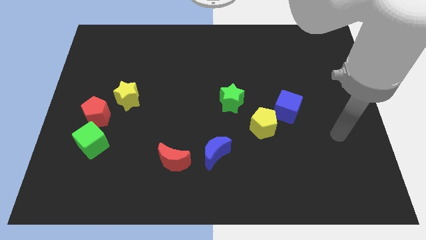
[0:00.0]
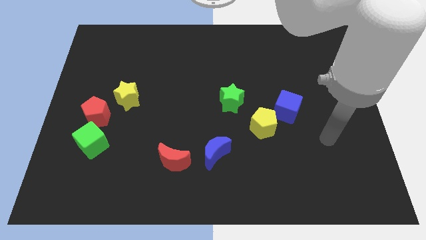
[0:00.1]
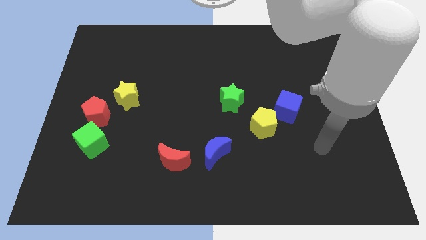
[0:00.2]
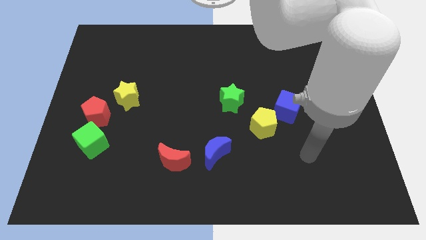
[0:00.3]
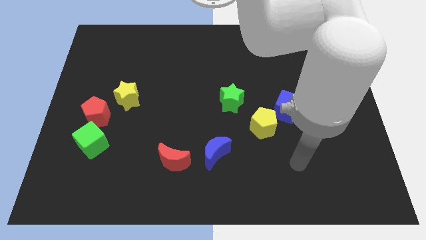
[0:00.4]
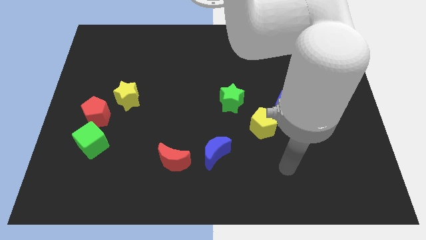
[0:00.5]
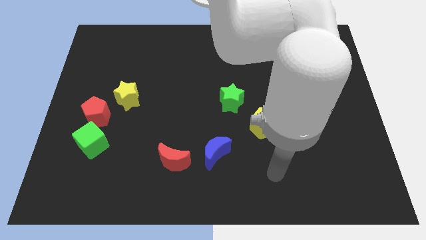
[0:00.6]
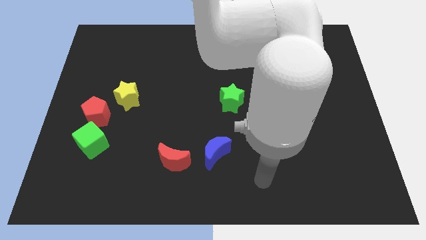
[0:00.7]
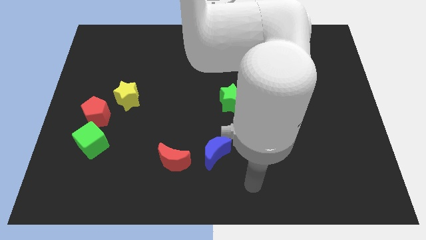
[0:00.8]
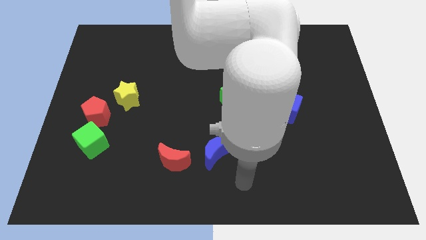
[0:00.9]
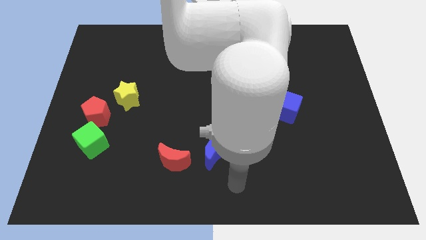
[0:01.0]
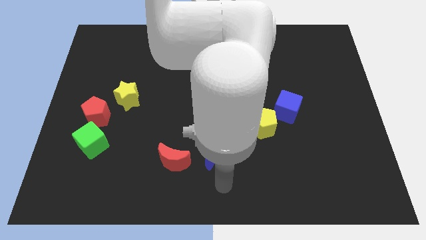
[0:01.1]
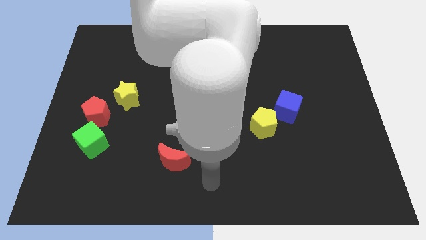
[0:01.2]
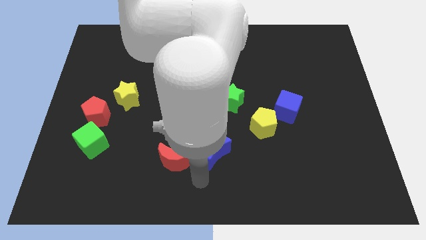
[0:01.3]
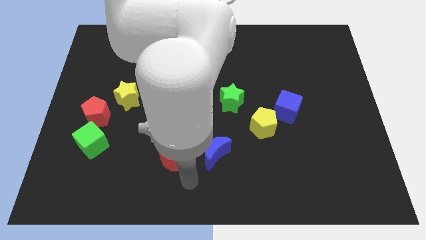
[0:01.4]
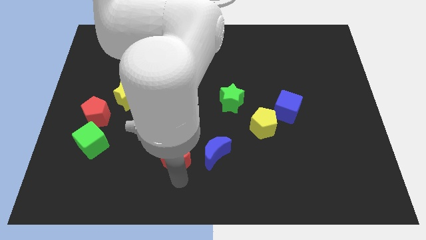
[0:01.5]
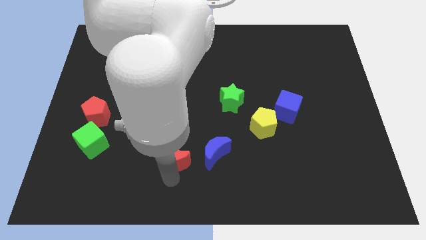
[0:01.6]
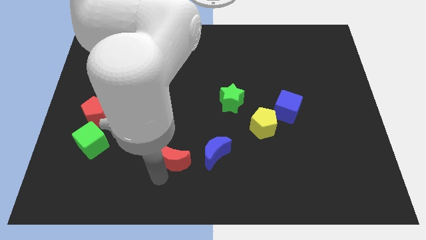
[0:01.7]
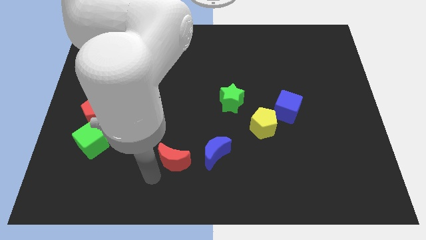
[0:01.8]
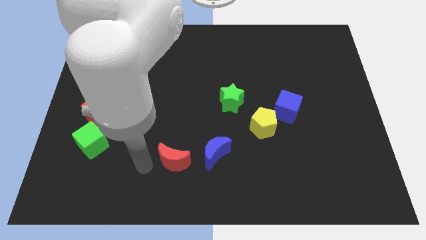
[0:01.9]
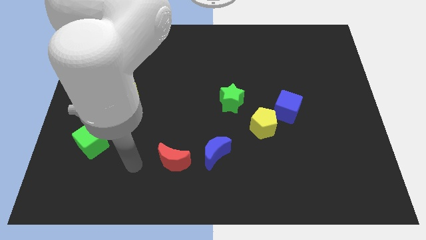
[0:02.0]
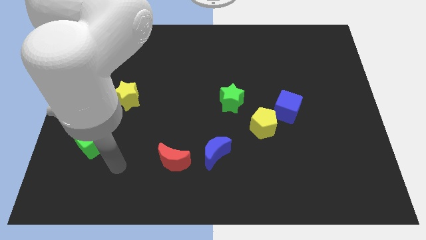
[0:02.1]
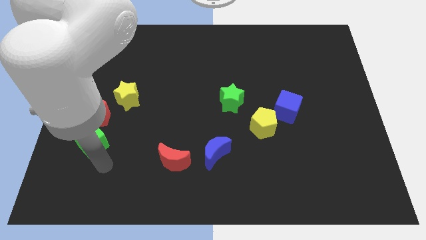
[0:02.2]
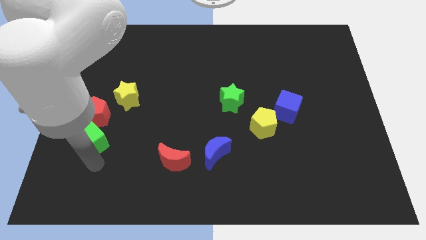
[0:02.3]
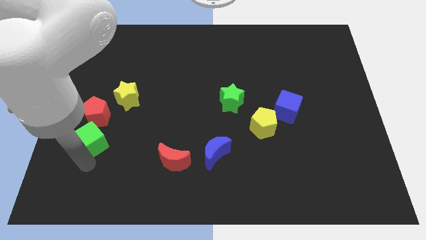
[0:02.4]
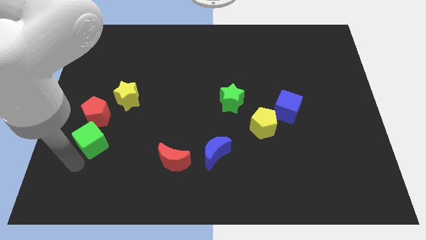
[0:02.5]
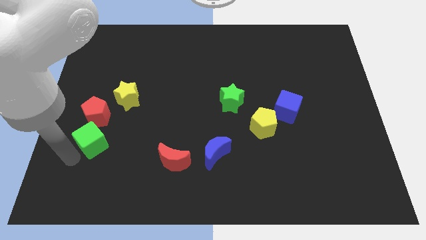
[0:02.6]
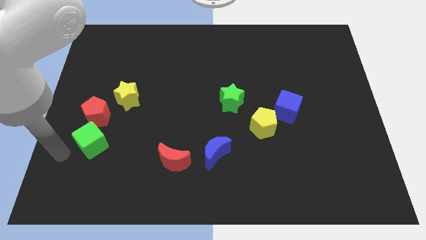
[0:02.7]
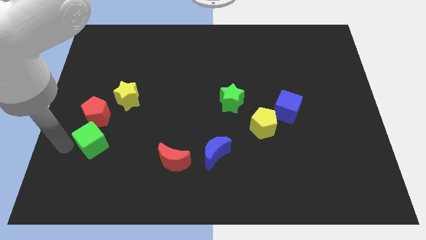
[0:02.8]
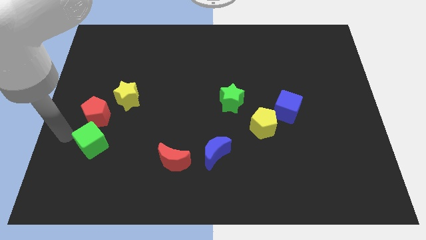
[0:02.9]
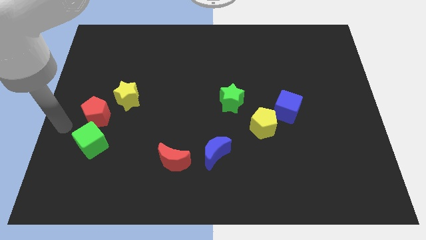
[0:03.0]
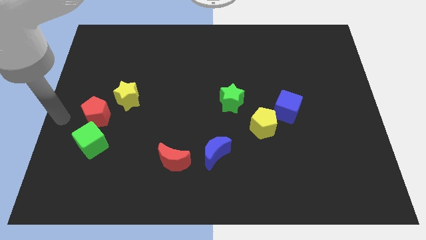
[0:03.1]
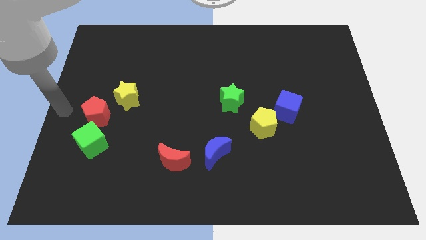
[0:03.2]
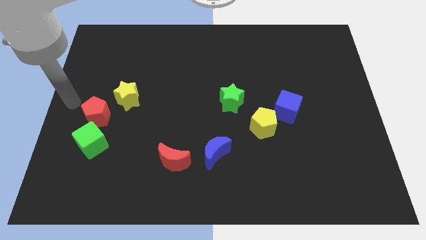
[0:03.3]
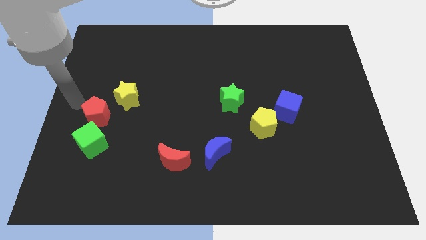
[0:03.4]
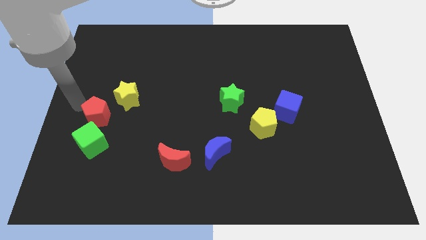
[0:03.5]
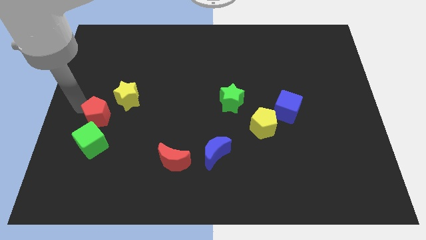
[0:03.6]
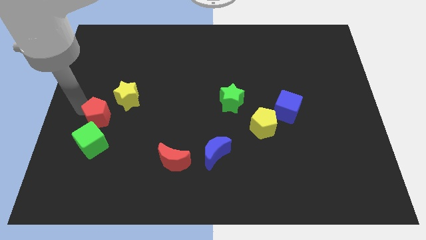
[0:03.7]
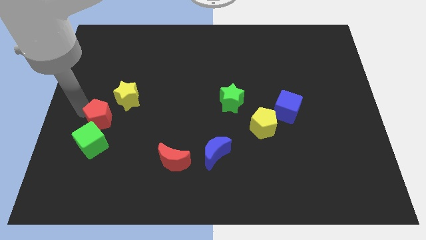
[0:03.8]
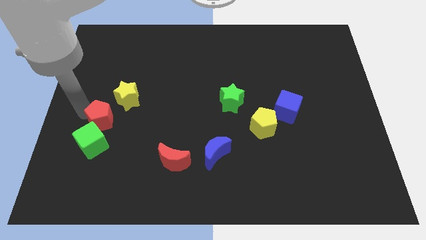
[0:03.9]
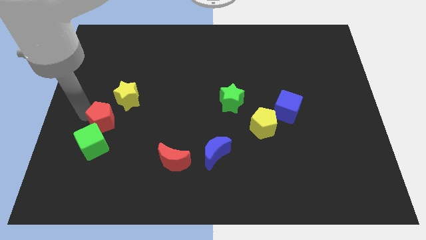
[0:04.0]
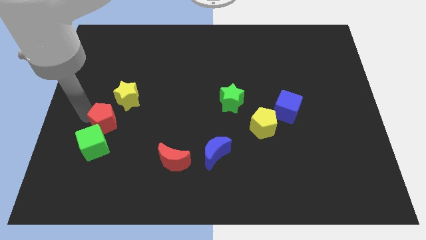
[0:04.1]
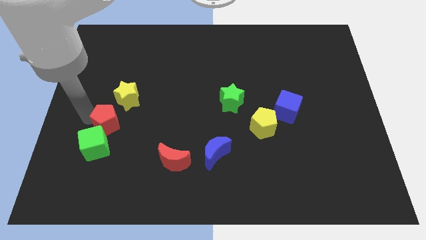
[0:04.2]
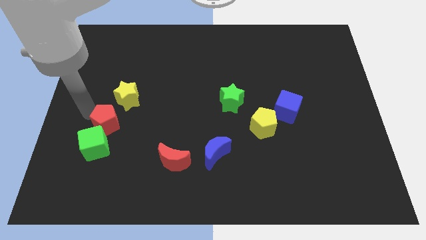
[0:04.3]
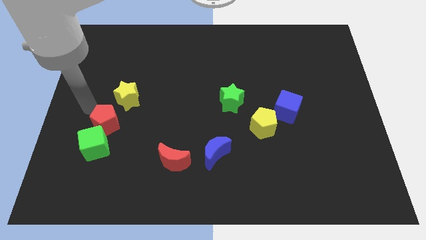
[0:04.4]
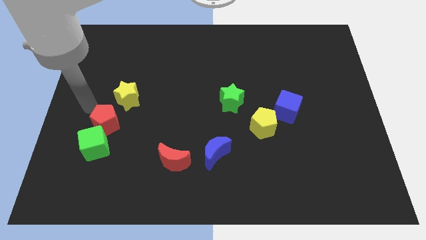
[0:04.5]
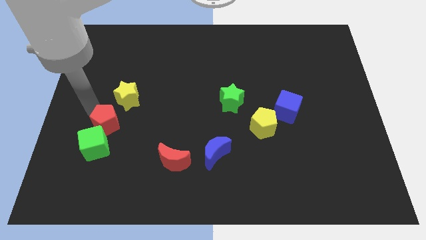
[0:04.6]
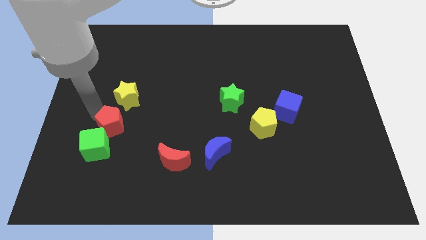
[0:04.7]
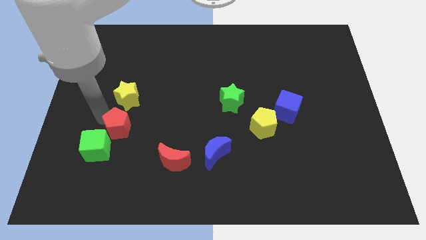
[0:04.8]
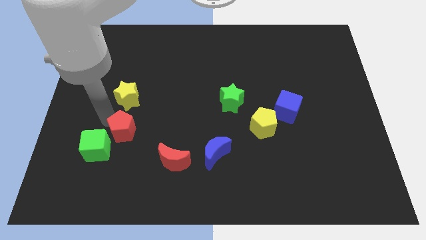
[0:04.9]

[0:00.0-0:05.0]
move the red pentagon downwards and right diagonally a little

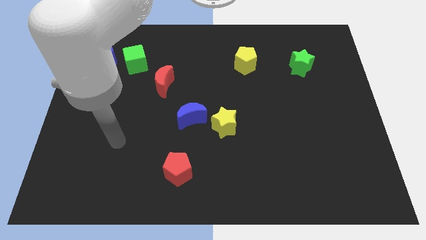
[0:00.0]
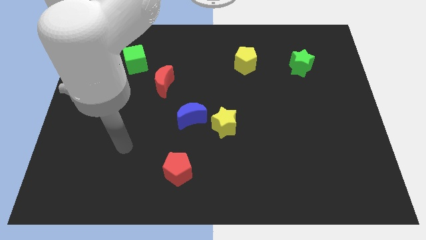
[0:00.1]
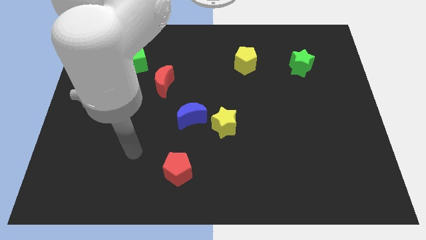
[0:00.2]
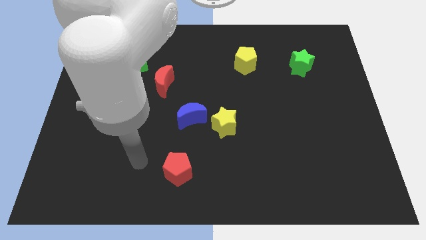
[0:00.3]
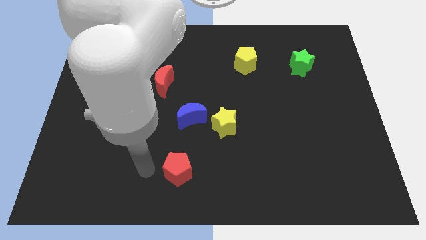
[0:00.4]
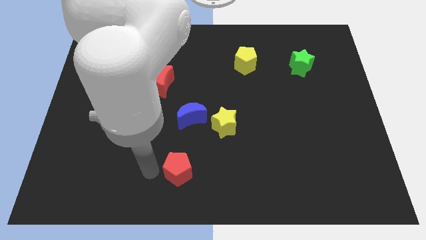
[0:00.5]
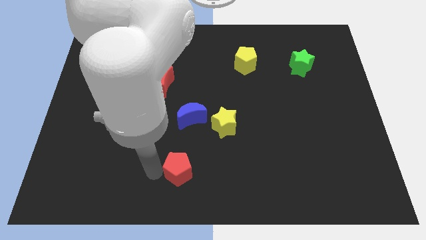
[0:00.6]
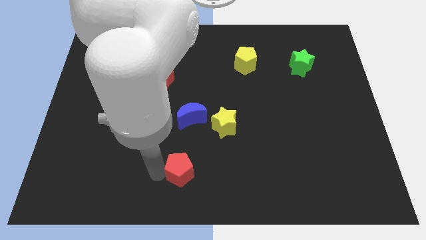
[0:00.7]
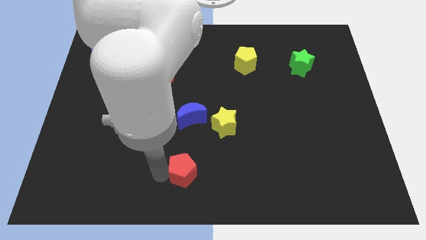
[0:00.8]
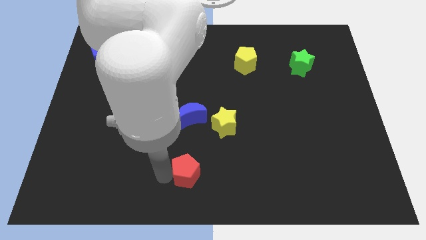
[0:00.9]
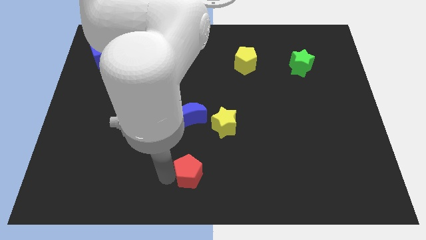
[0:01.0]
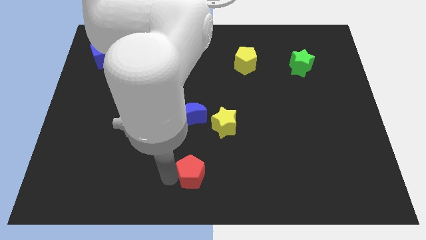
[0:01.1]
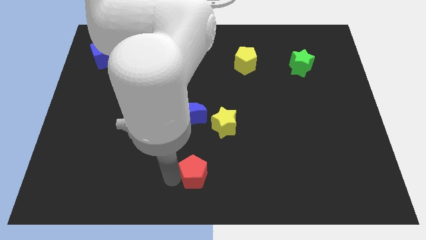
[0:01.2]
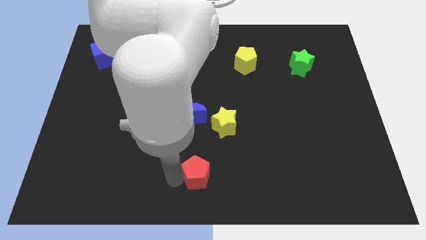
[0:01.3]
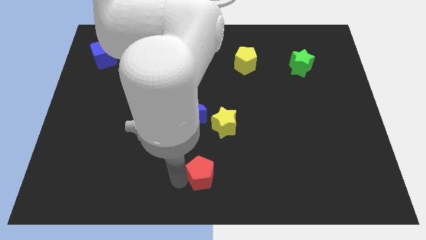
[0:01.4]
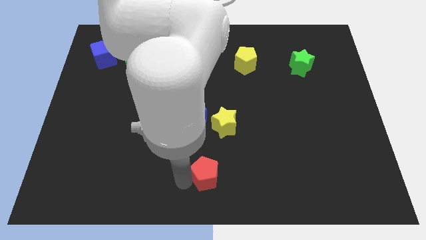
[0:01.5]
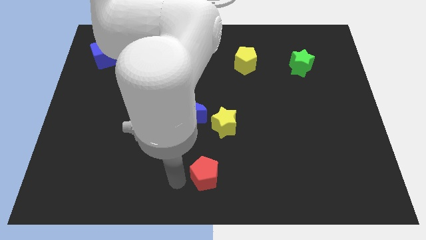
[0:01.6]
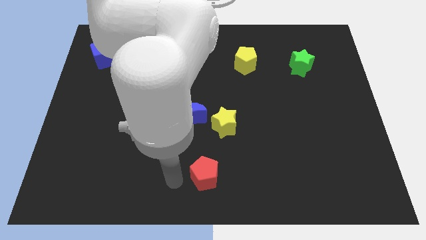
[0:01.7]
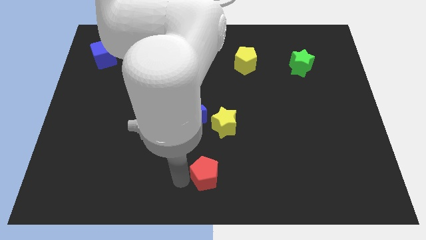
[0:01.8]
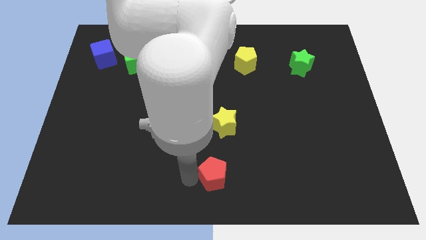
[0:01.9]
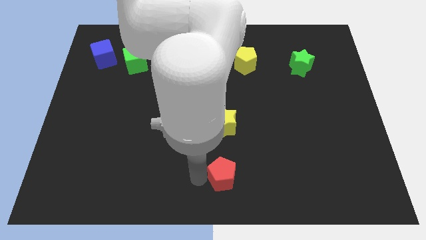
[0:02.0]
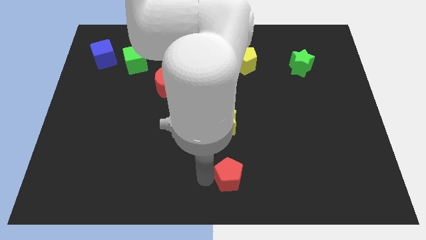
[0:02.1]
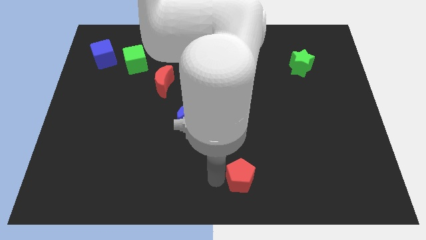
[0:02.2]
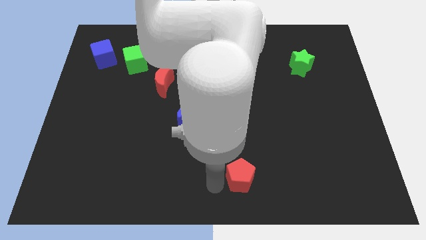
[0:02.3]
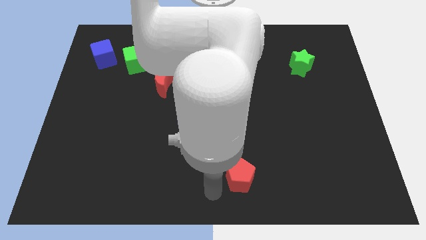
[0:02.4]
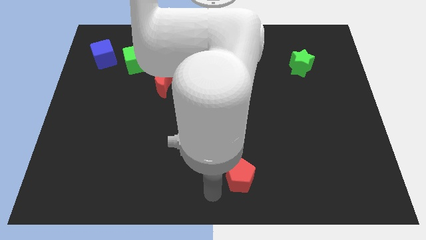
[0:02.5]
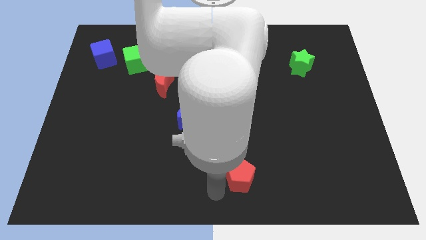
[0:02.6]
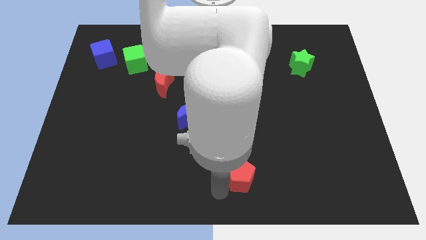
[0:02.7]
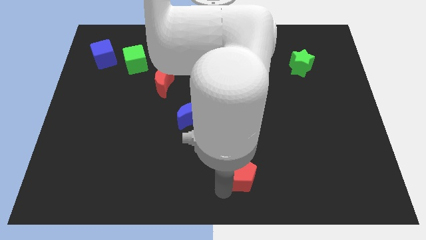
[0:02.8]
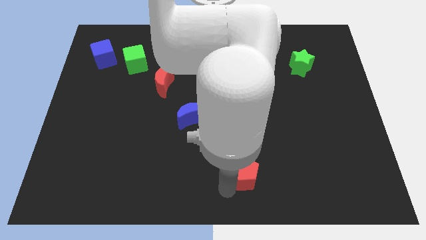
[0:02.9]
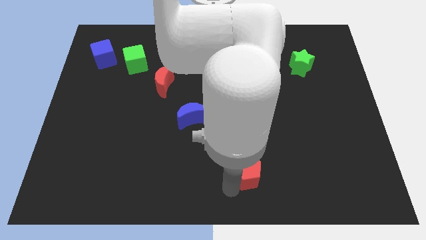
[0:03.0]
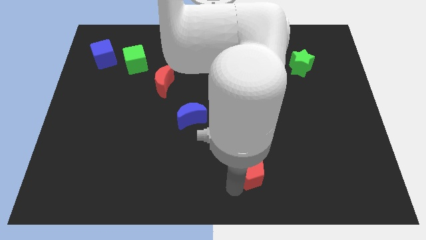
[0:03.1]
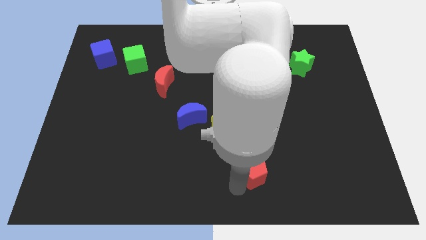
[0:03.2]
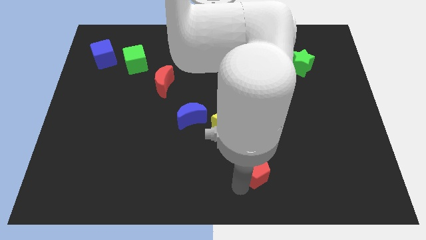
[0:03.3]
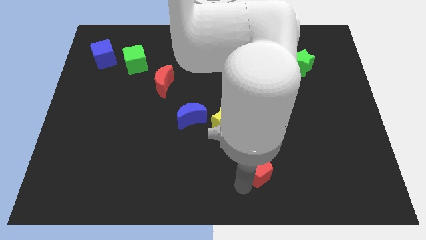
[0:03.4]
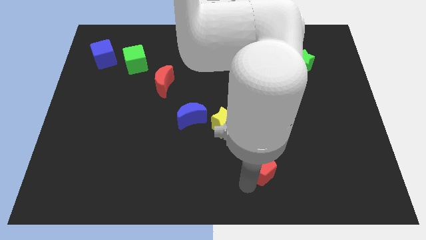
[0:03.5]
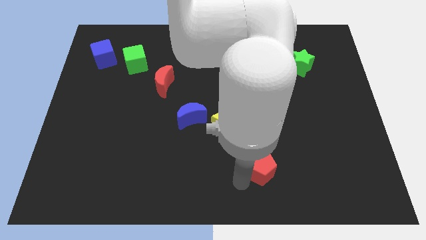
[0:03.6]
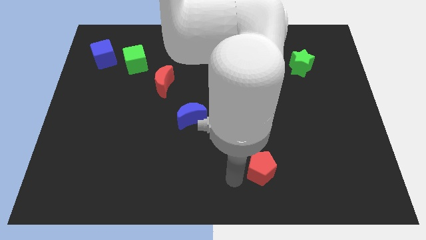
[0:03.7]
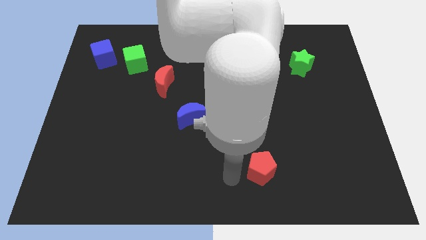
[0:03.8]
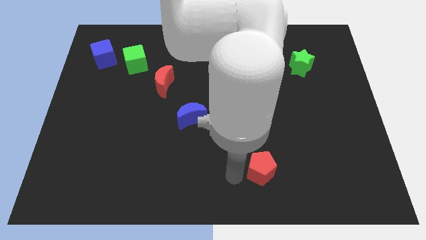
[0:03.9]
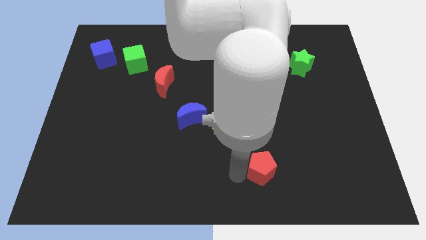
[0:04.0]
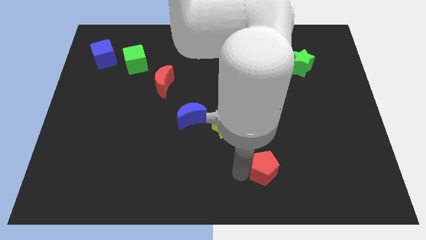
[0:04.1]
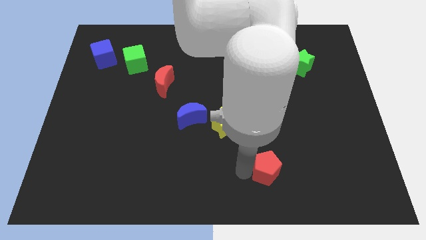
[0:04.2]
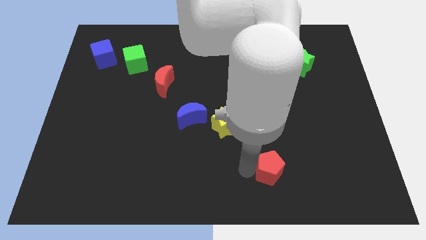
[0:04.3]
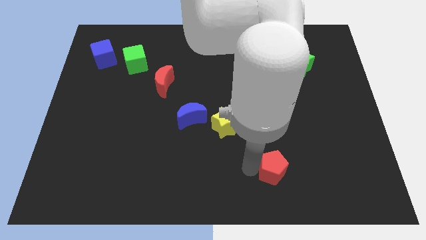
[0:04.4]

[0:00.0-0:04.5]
slide the red pentagon to the right
